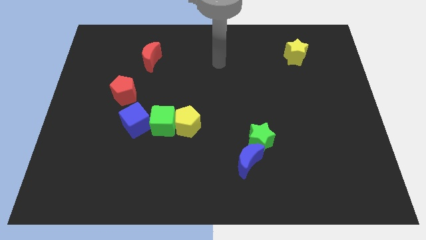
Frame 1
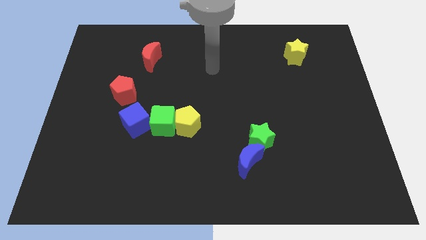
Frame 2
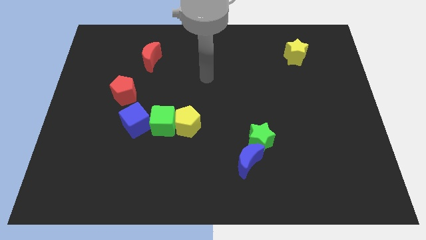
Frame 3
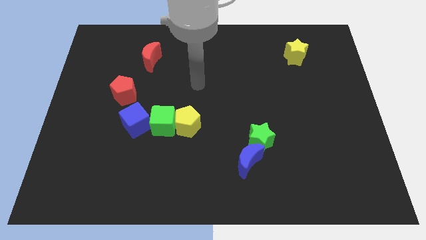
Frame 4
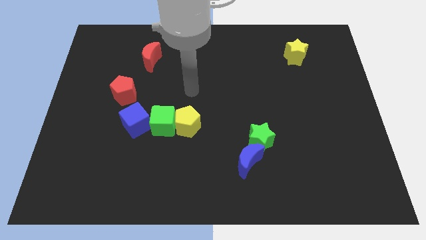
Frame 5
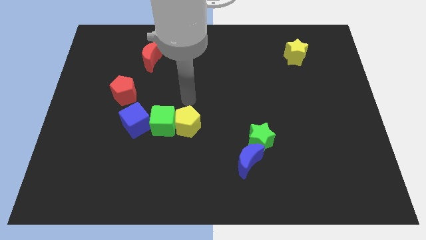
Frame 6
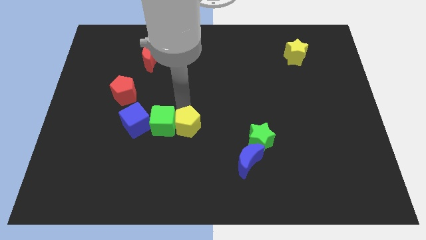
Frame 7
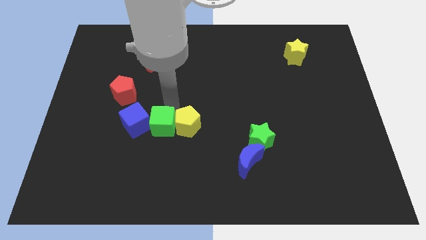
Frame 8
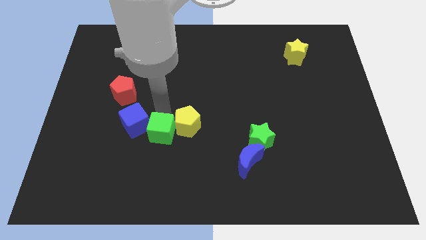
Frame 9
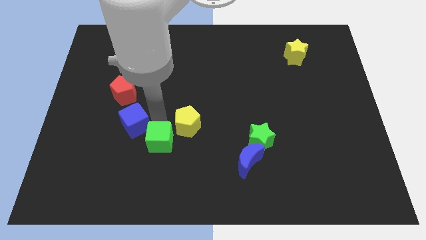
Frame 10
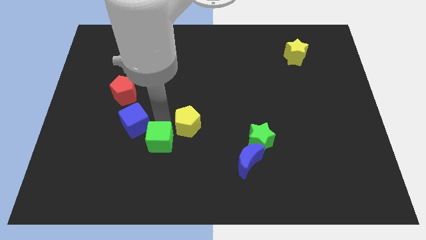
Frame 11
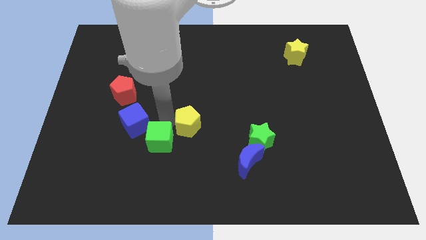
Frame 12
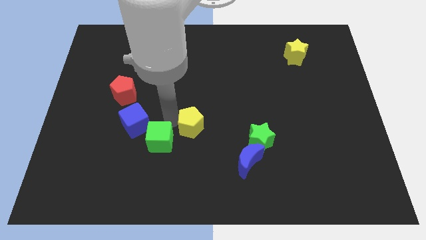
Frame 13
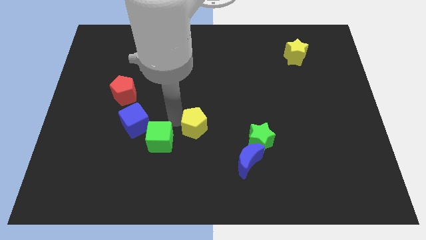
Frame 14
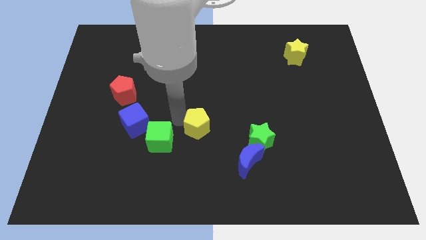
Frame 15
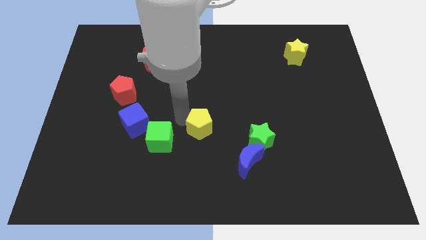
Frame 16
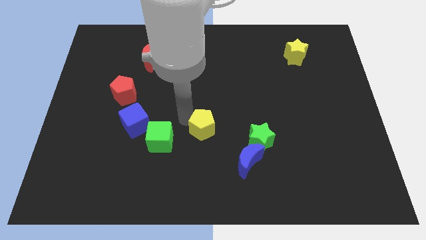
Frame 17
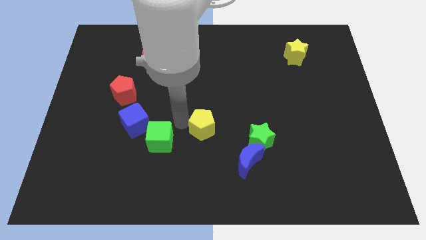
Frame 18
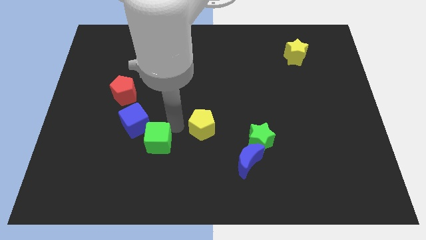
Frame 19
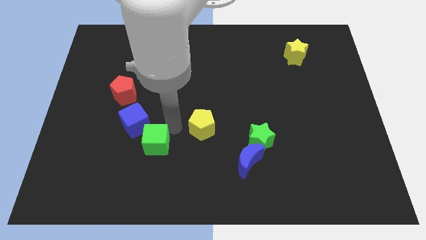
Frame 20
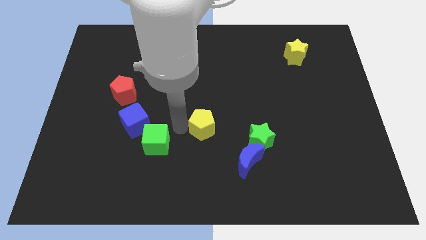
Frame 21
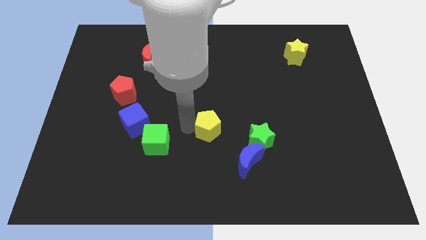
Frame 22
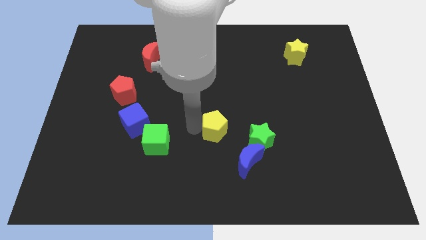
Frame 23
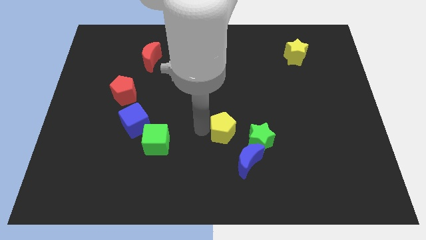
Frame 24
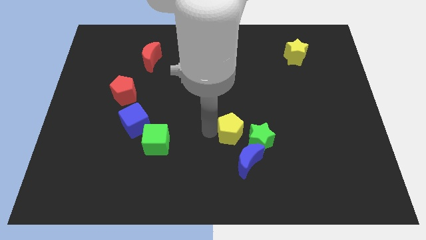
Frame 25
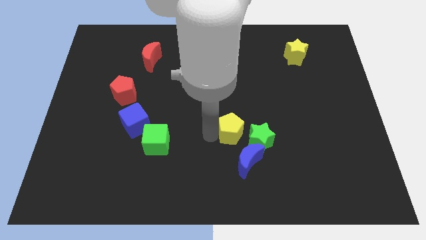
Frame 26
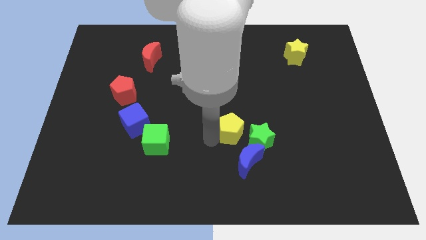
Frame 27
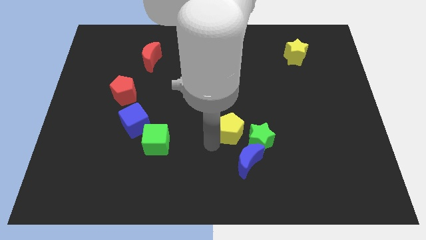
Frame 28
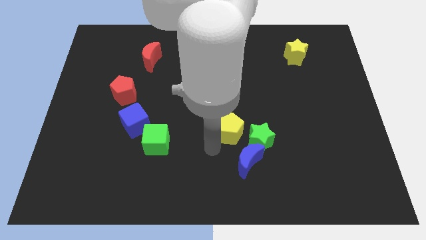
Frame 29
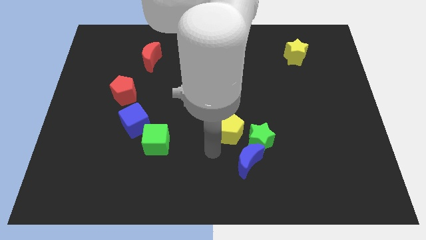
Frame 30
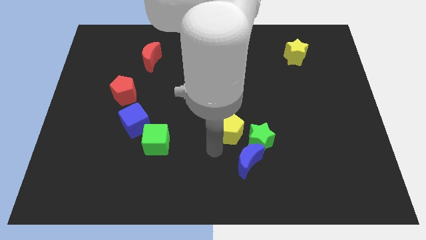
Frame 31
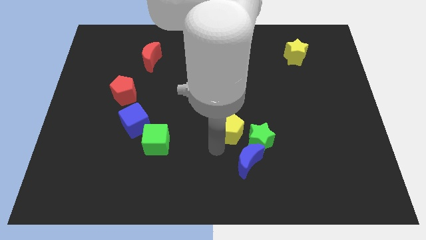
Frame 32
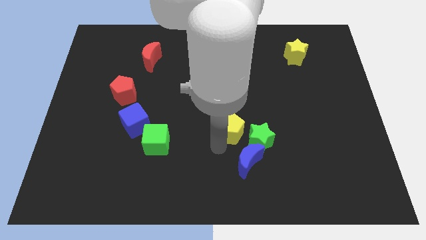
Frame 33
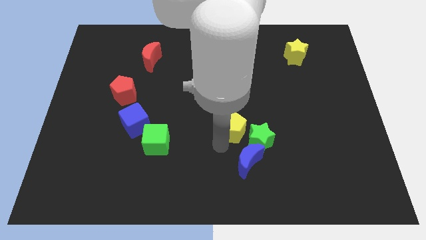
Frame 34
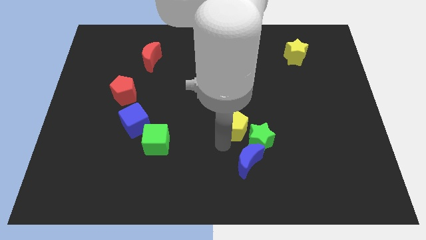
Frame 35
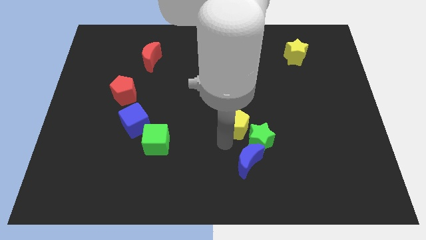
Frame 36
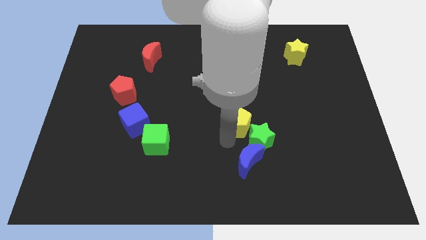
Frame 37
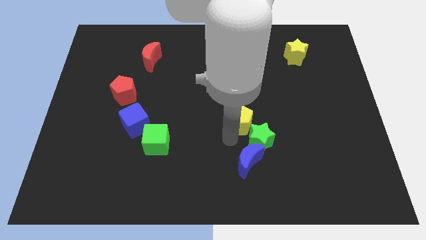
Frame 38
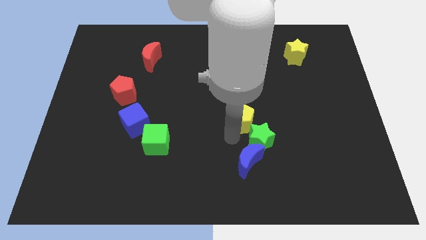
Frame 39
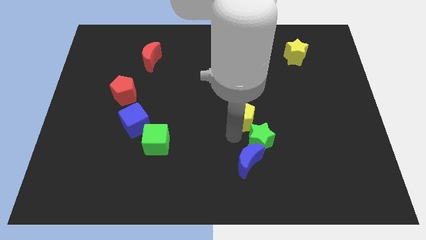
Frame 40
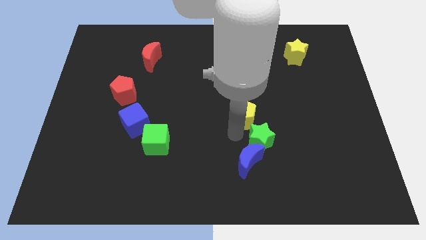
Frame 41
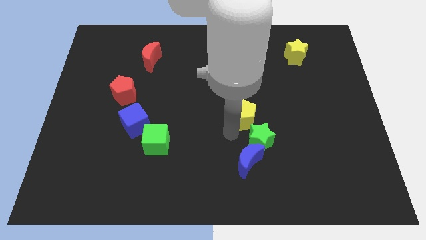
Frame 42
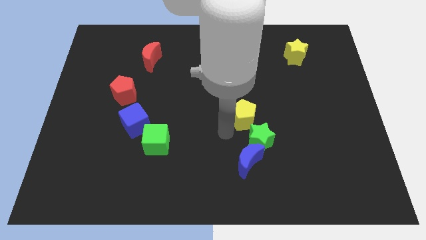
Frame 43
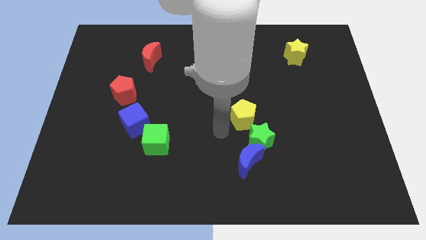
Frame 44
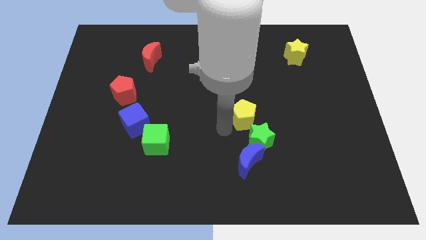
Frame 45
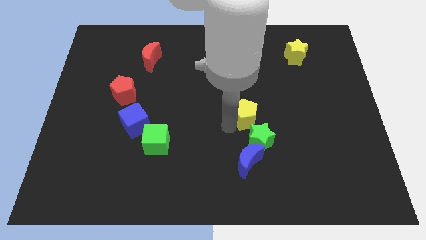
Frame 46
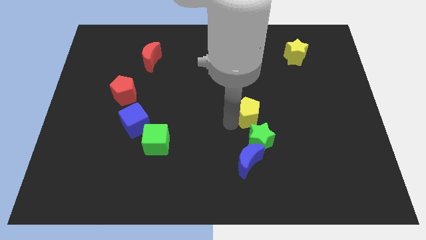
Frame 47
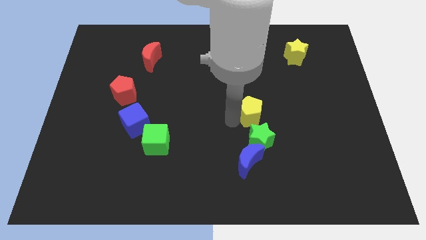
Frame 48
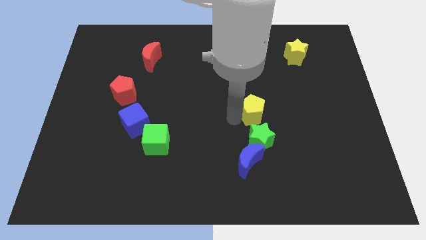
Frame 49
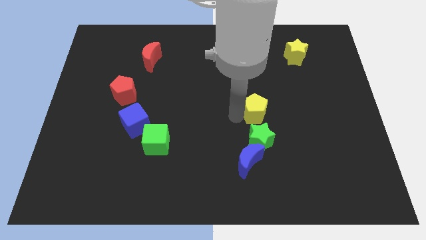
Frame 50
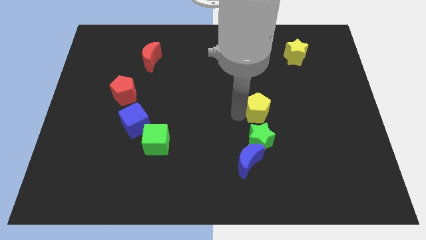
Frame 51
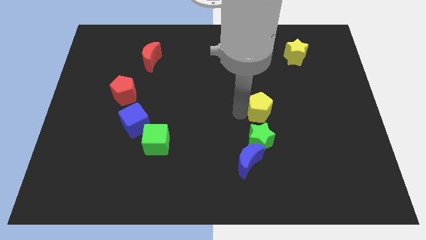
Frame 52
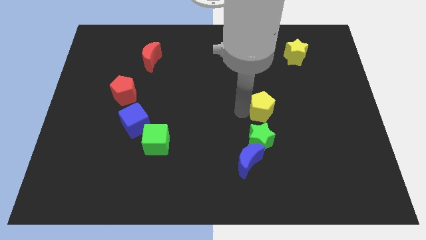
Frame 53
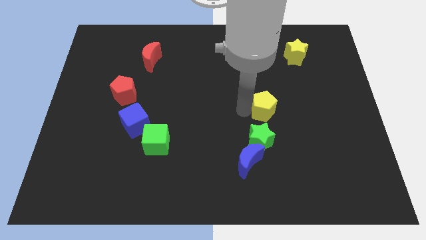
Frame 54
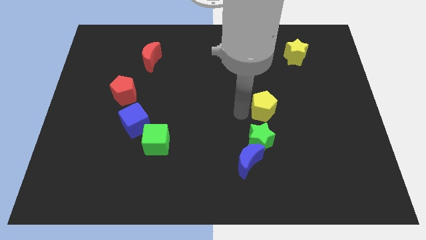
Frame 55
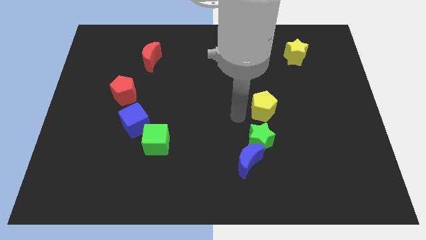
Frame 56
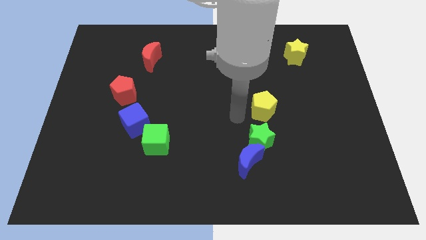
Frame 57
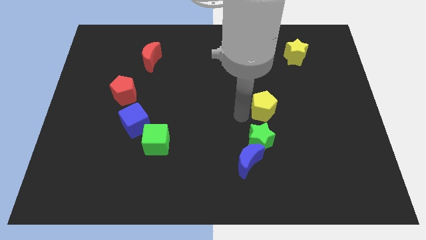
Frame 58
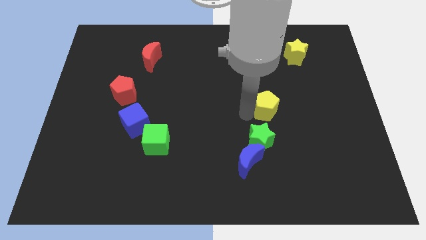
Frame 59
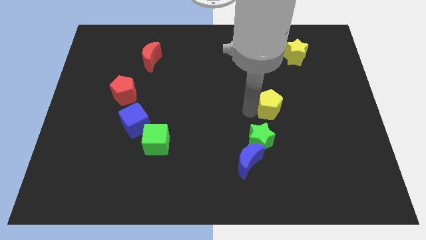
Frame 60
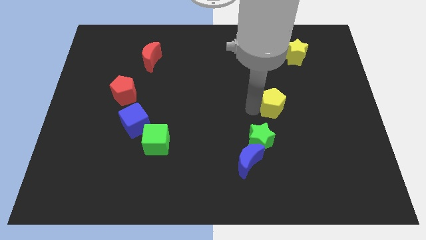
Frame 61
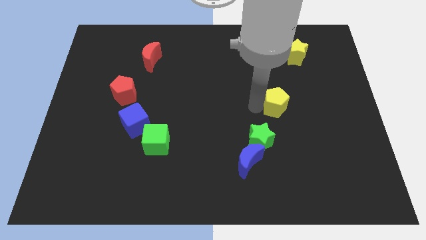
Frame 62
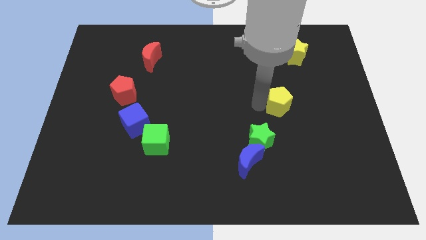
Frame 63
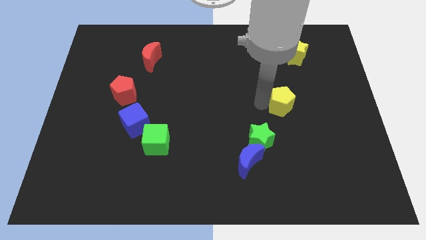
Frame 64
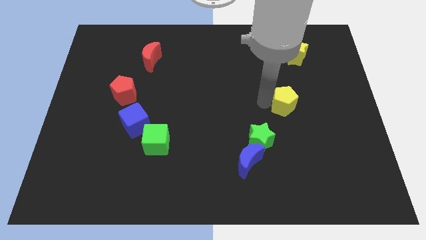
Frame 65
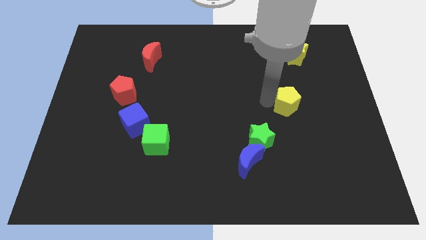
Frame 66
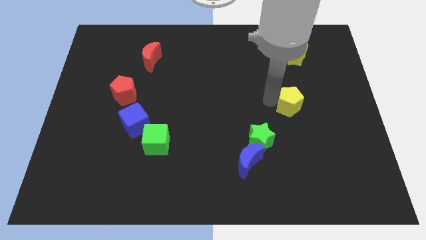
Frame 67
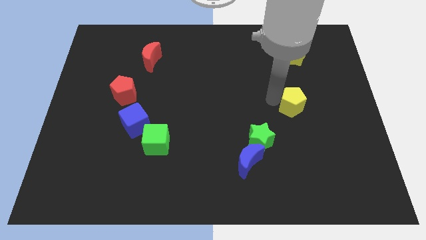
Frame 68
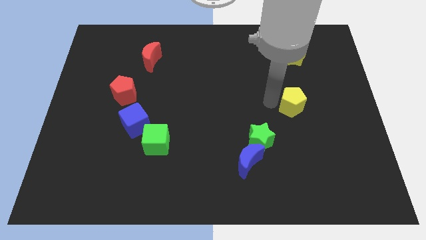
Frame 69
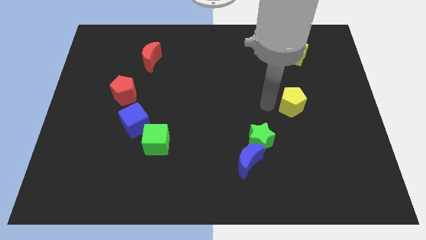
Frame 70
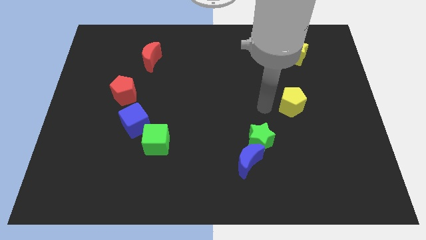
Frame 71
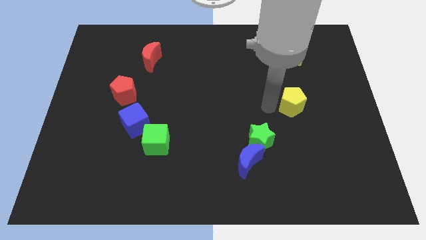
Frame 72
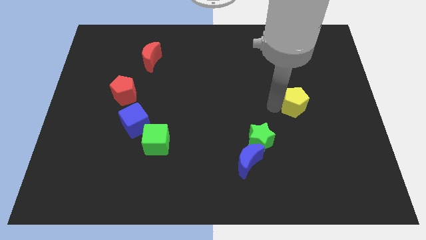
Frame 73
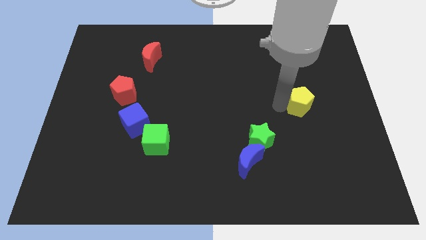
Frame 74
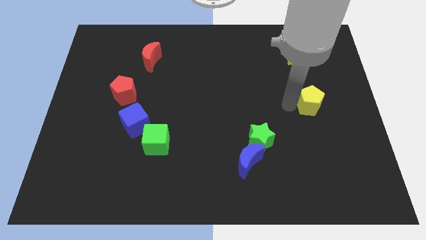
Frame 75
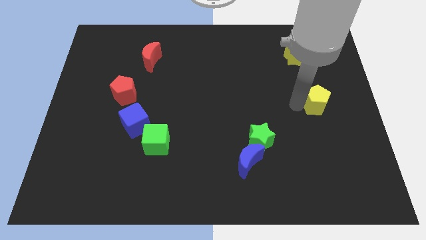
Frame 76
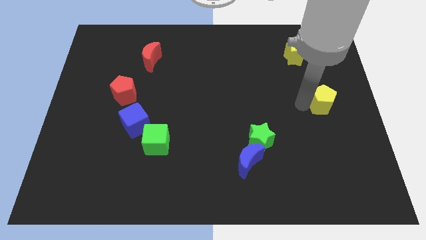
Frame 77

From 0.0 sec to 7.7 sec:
slide the yellow pentagon to the right side
